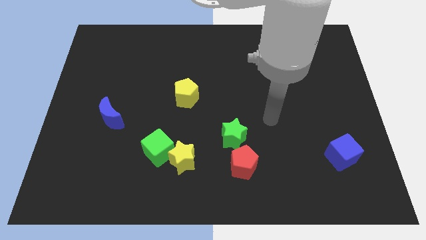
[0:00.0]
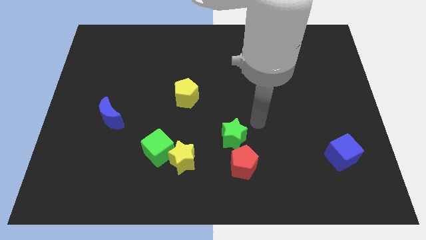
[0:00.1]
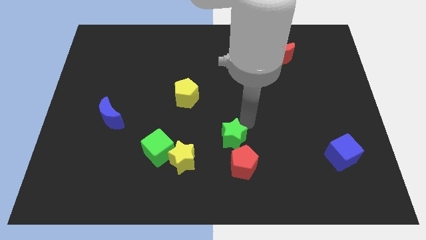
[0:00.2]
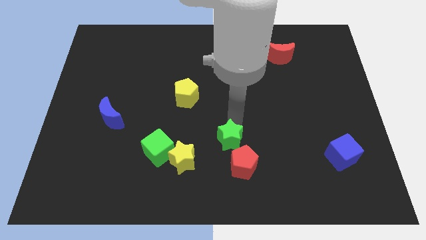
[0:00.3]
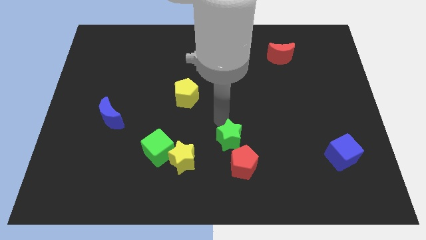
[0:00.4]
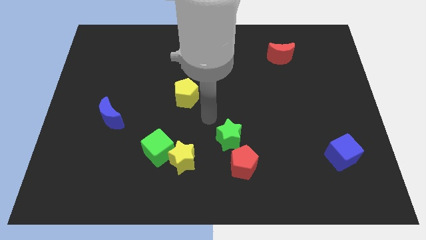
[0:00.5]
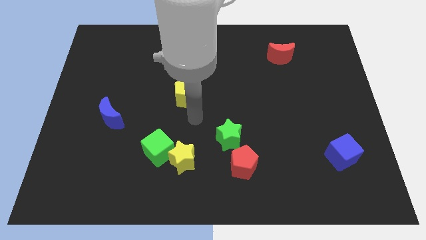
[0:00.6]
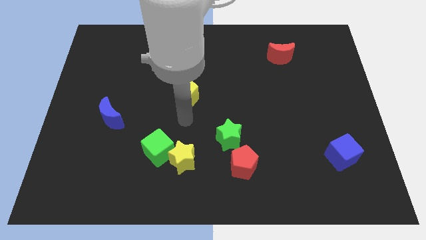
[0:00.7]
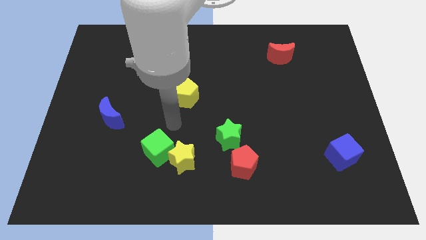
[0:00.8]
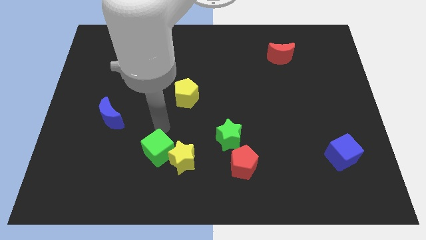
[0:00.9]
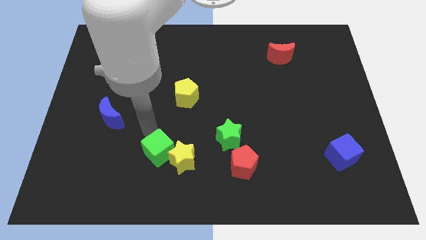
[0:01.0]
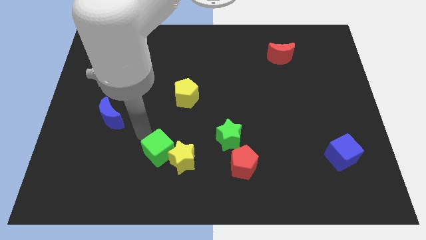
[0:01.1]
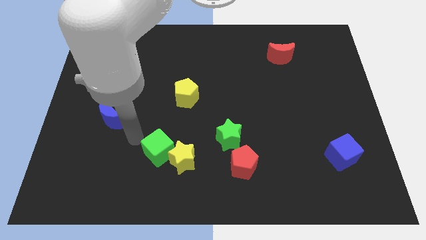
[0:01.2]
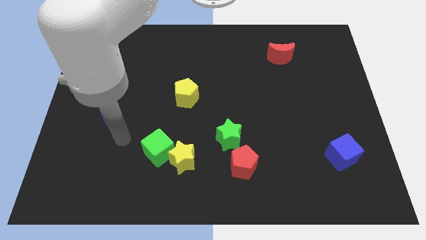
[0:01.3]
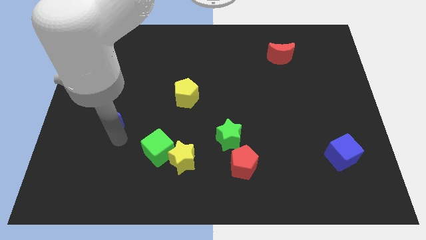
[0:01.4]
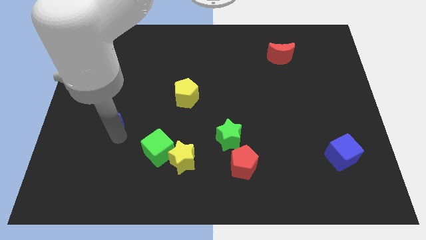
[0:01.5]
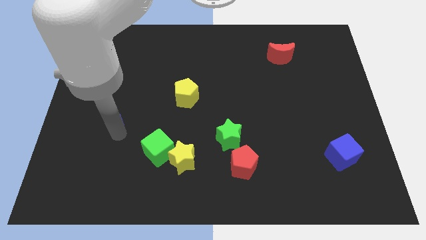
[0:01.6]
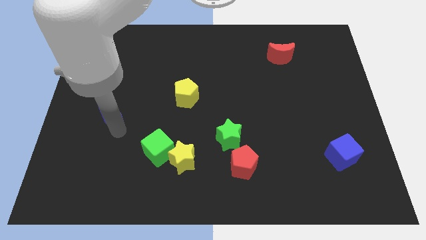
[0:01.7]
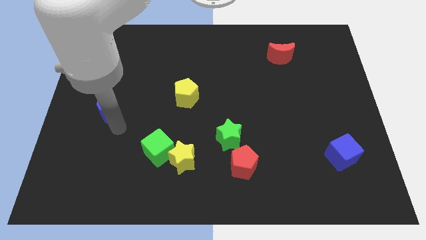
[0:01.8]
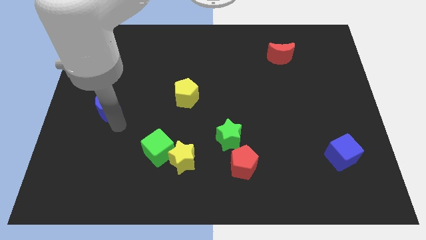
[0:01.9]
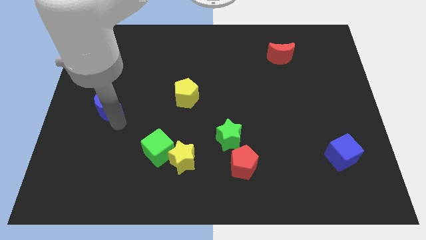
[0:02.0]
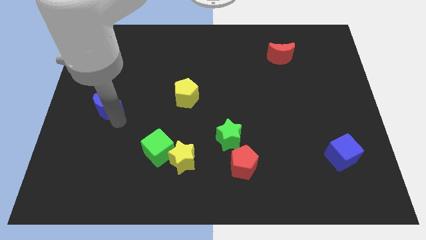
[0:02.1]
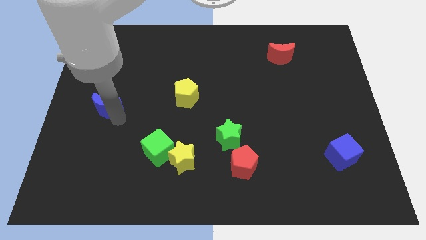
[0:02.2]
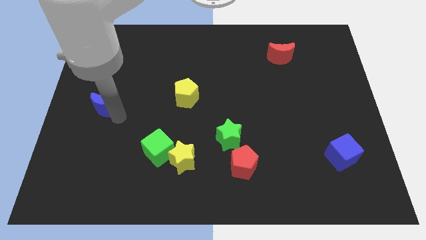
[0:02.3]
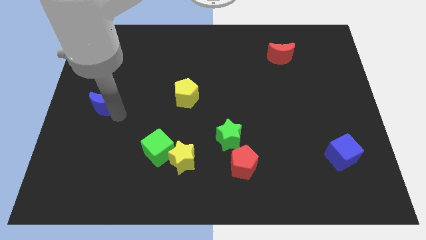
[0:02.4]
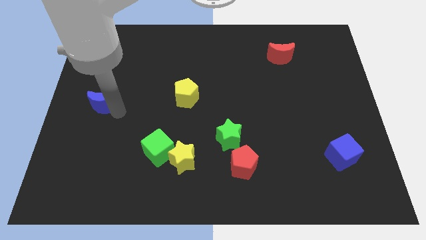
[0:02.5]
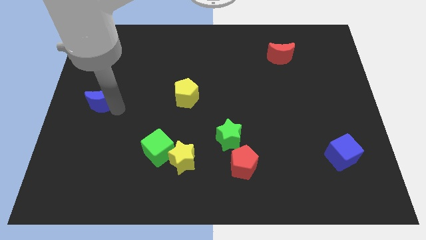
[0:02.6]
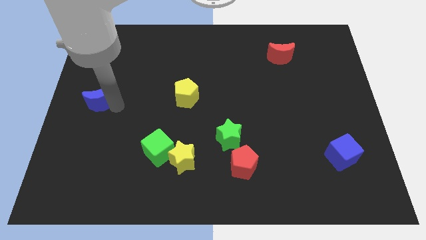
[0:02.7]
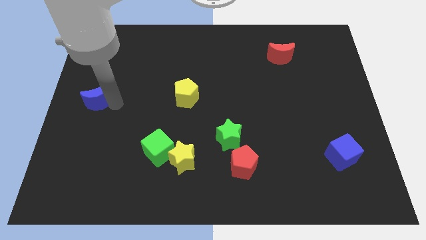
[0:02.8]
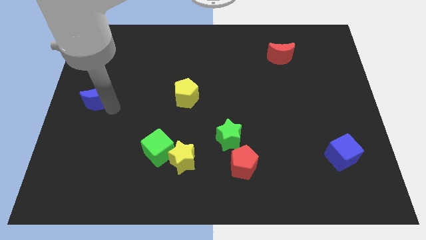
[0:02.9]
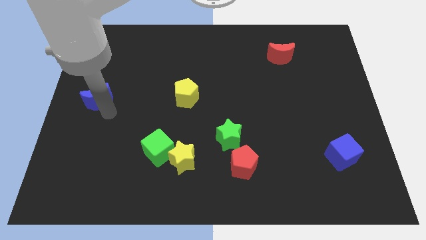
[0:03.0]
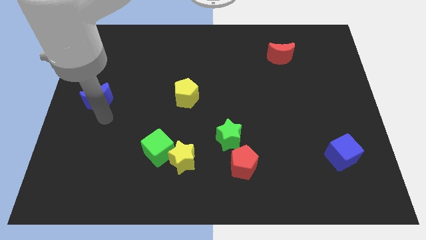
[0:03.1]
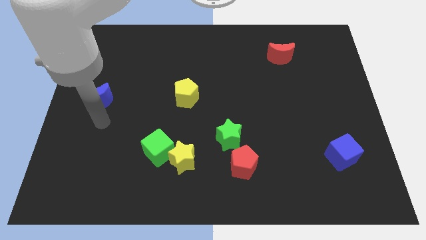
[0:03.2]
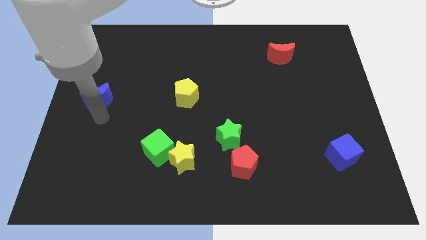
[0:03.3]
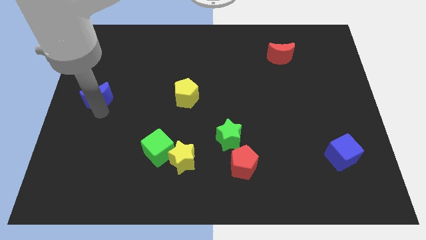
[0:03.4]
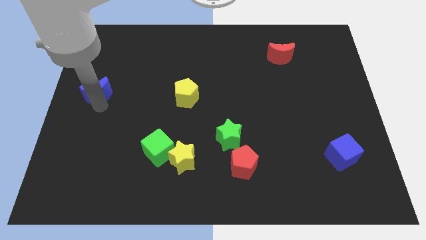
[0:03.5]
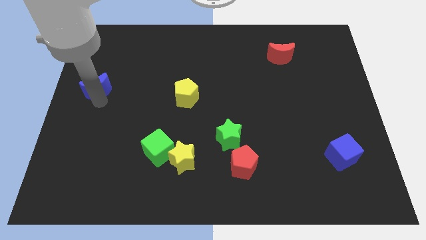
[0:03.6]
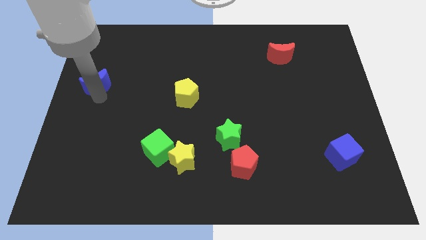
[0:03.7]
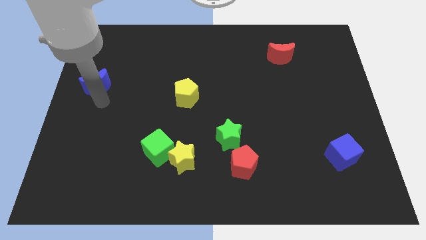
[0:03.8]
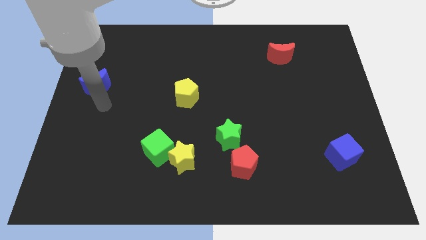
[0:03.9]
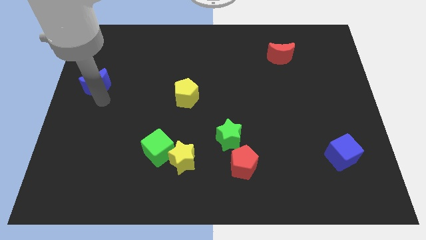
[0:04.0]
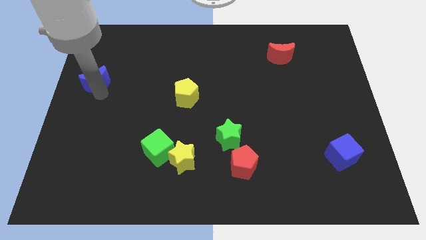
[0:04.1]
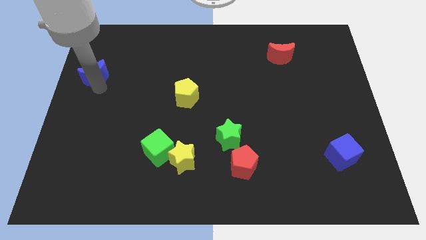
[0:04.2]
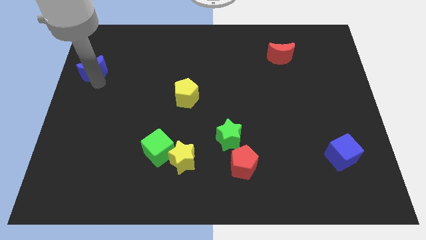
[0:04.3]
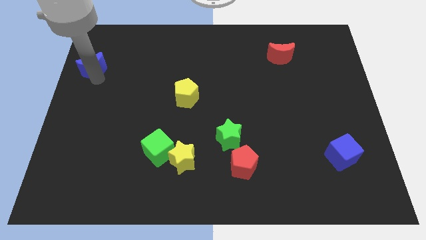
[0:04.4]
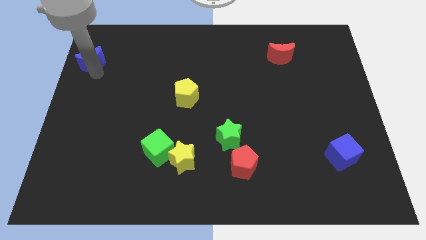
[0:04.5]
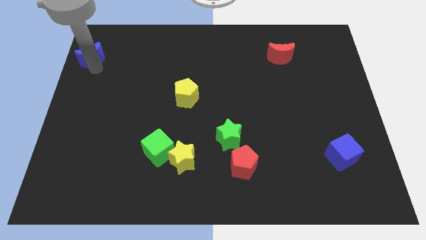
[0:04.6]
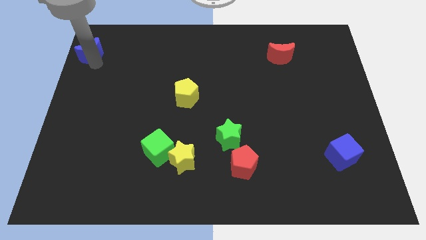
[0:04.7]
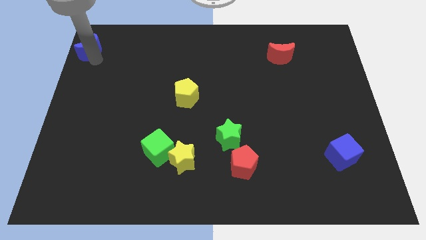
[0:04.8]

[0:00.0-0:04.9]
slide the blue moon to the top left of the board

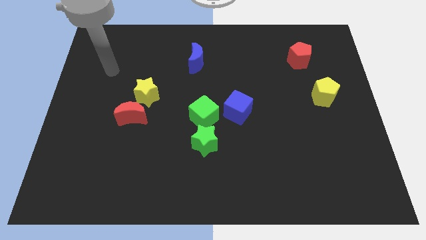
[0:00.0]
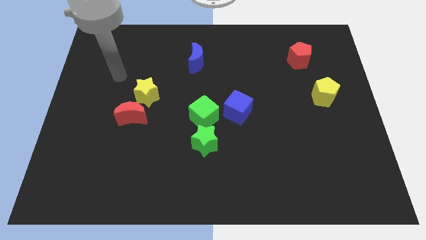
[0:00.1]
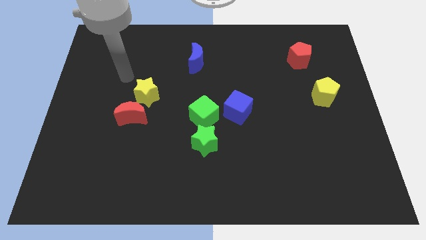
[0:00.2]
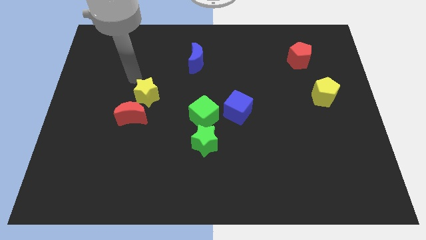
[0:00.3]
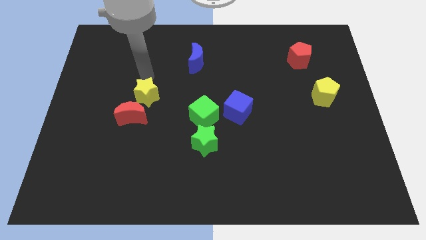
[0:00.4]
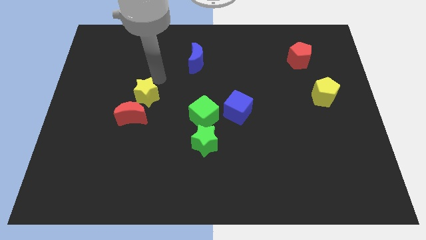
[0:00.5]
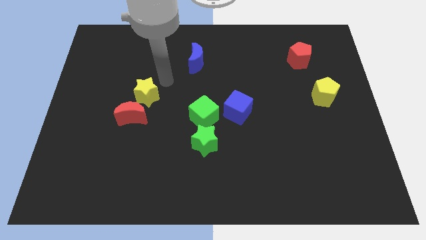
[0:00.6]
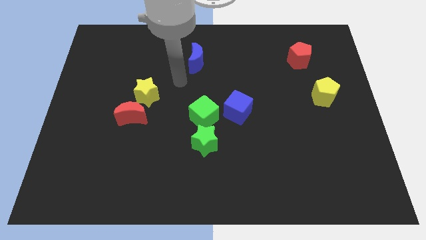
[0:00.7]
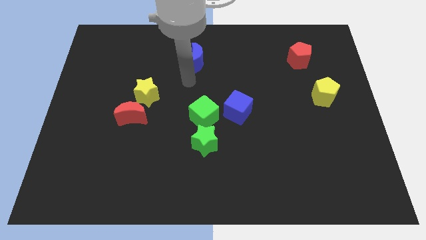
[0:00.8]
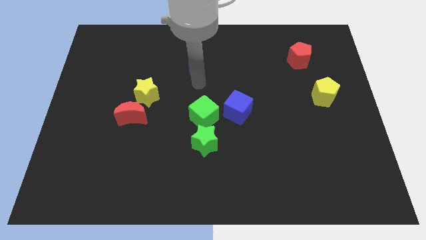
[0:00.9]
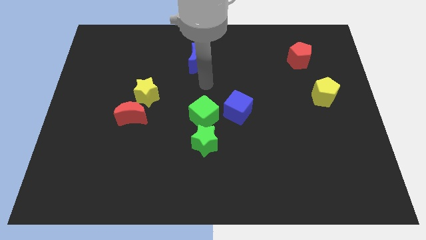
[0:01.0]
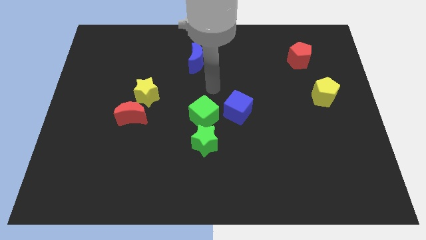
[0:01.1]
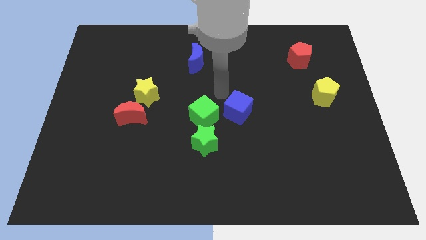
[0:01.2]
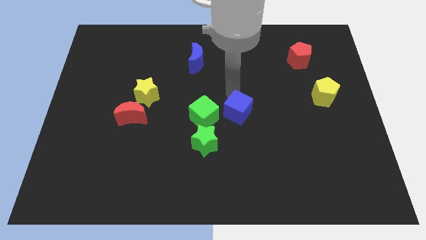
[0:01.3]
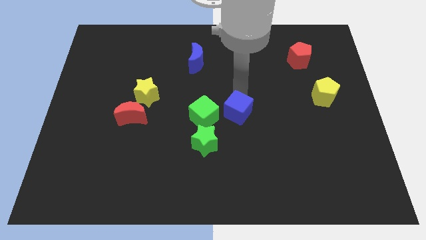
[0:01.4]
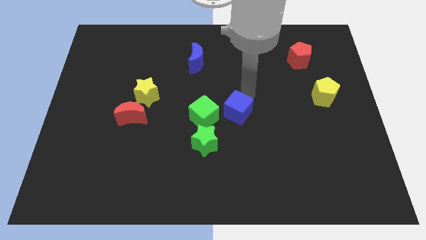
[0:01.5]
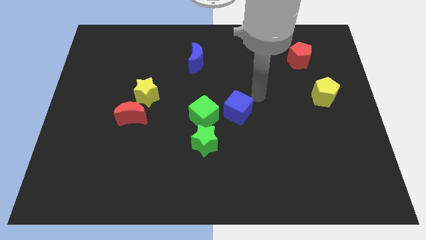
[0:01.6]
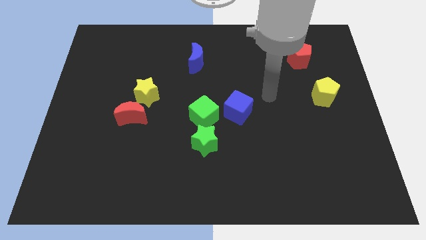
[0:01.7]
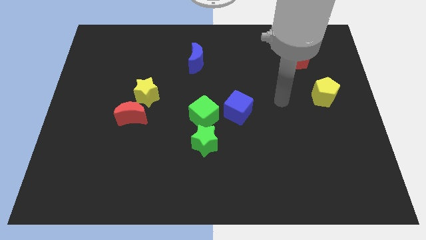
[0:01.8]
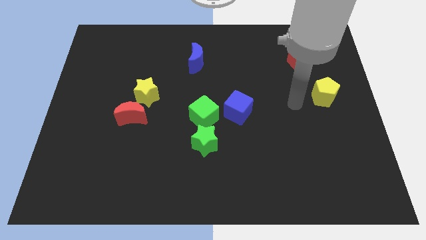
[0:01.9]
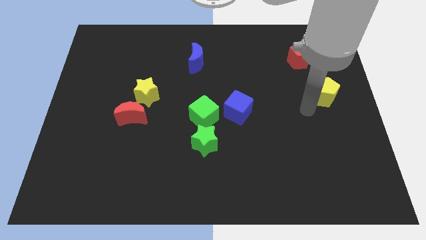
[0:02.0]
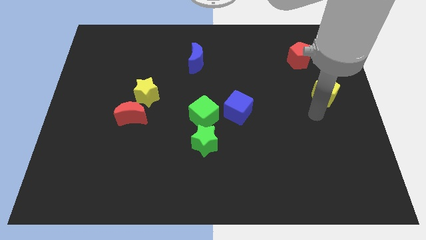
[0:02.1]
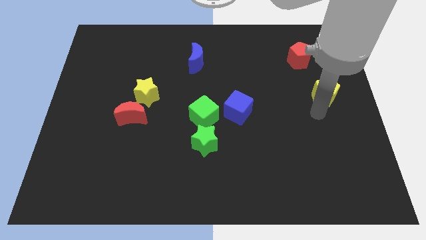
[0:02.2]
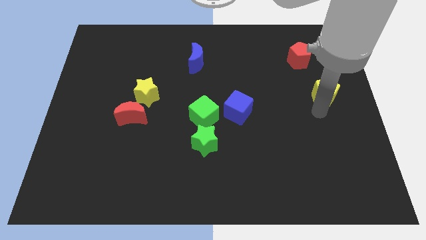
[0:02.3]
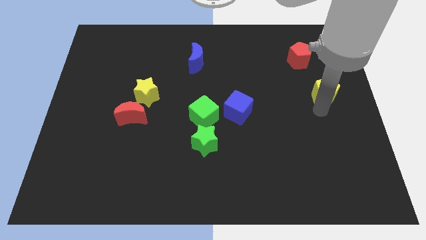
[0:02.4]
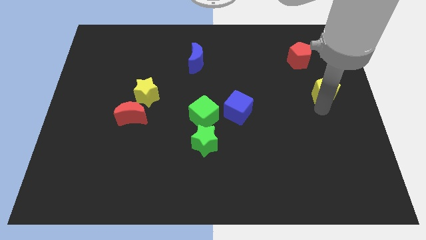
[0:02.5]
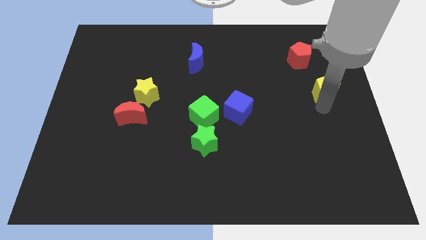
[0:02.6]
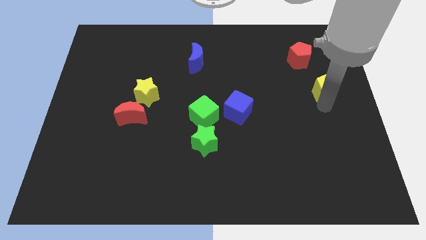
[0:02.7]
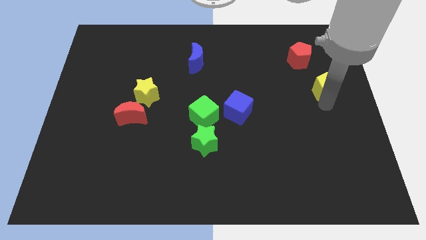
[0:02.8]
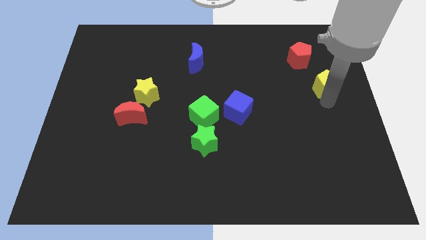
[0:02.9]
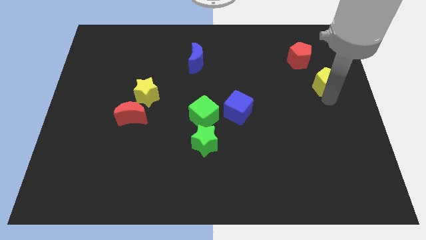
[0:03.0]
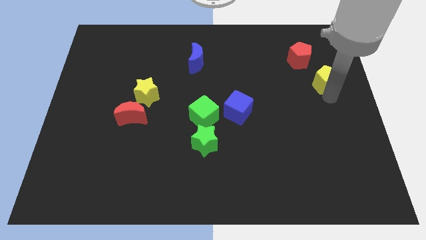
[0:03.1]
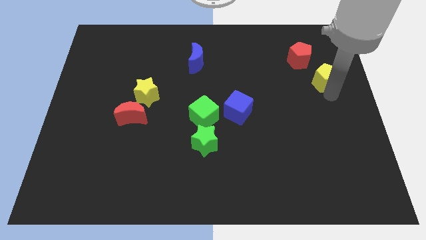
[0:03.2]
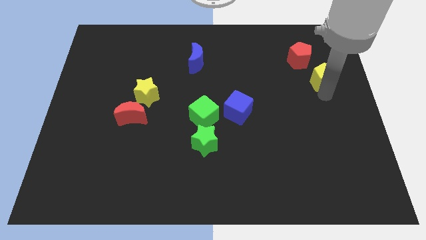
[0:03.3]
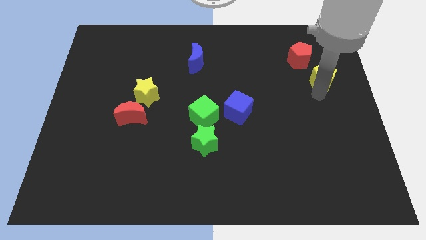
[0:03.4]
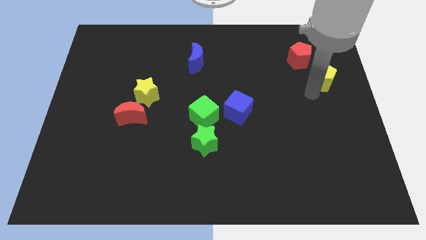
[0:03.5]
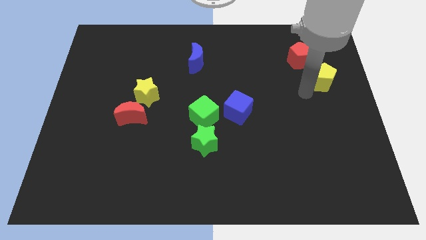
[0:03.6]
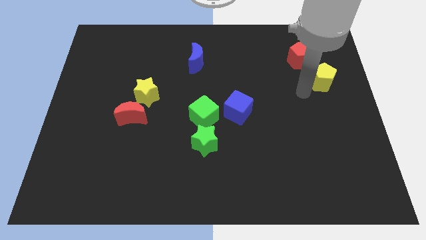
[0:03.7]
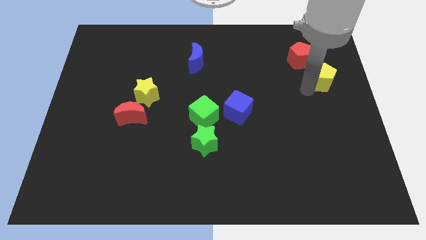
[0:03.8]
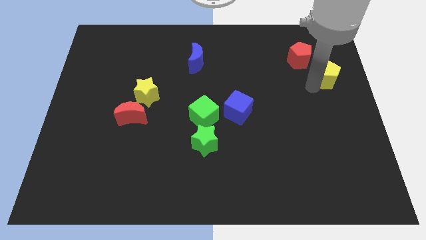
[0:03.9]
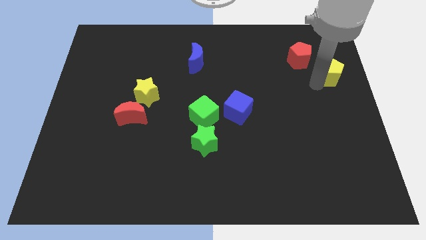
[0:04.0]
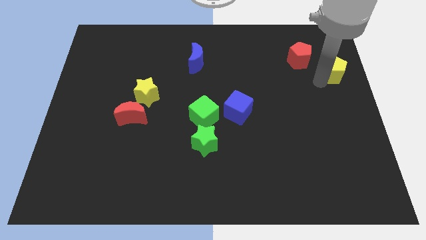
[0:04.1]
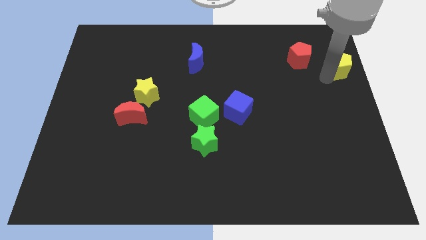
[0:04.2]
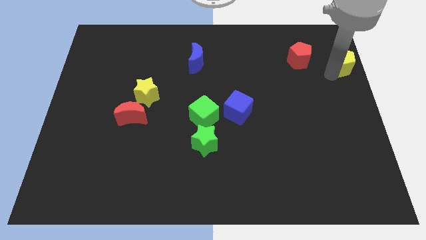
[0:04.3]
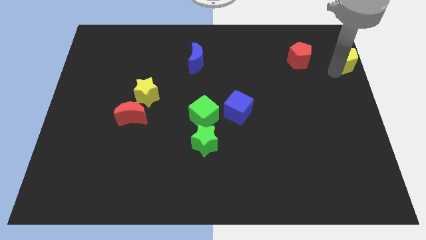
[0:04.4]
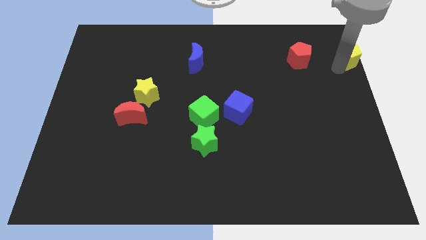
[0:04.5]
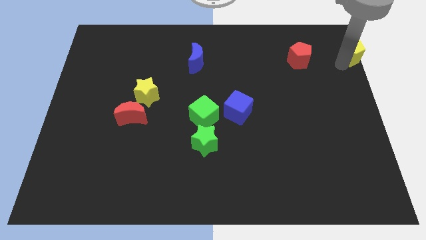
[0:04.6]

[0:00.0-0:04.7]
move the yellow pentagon to the upper right corner
